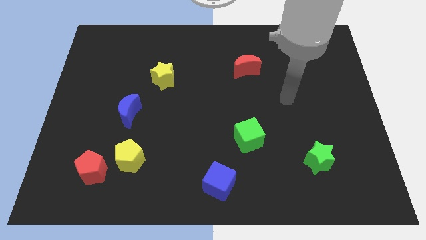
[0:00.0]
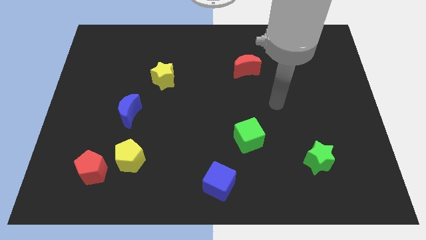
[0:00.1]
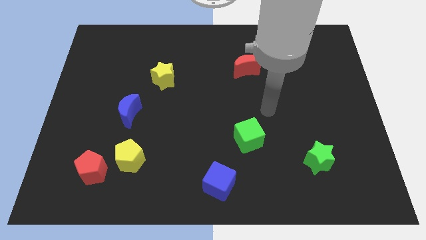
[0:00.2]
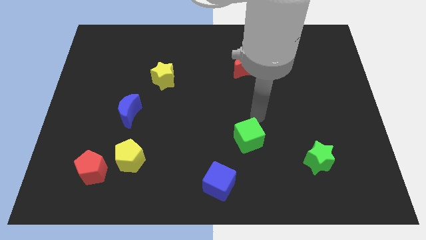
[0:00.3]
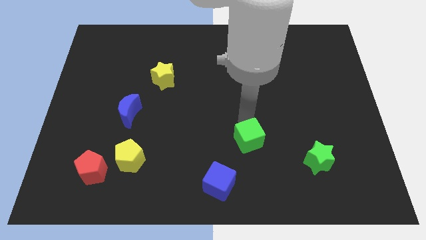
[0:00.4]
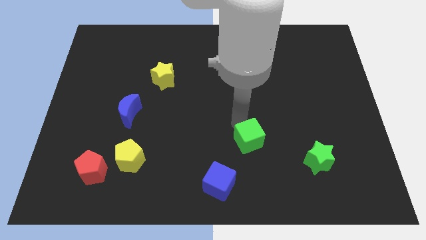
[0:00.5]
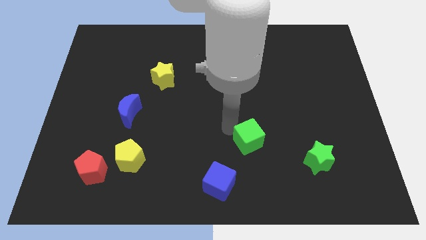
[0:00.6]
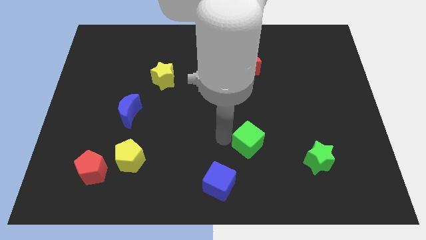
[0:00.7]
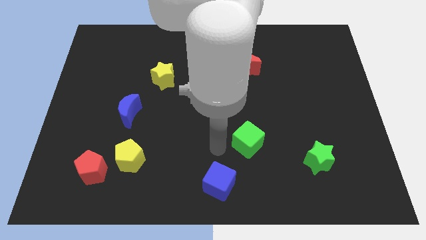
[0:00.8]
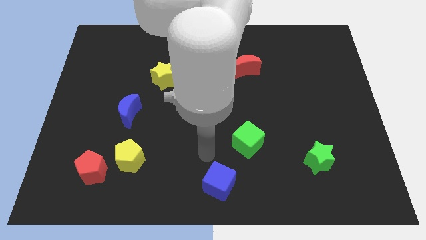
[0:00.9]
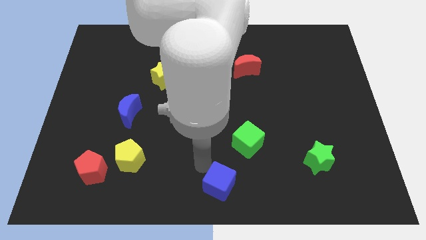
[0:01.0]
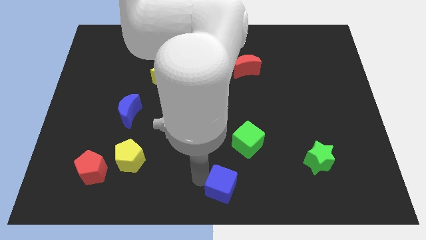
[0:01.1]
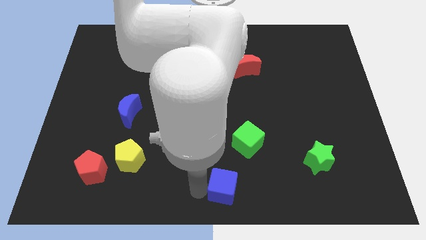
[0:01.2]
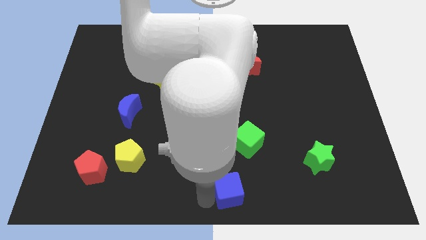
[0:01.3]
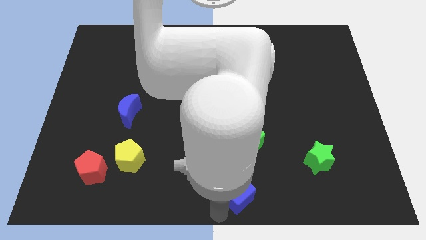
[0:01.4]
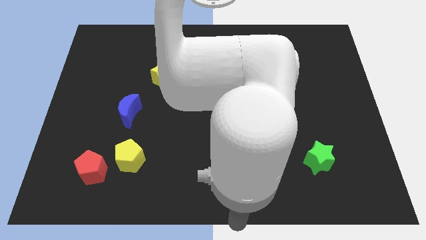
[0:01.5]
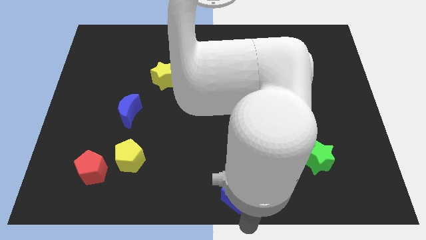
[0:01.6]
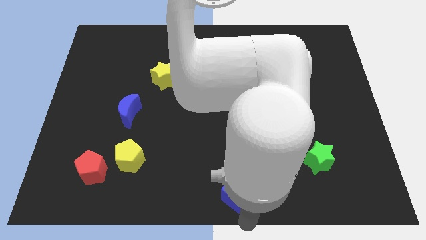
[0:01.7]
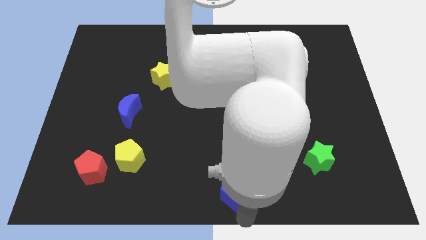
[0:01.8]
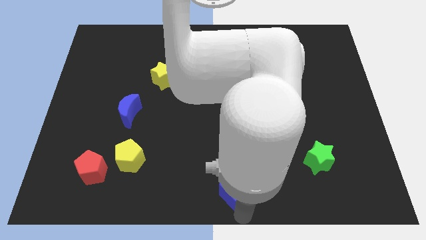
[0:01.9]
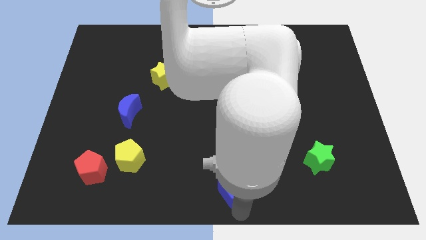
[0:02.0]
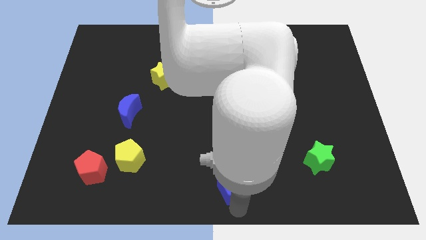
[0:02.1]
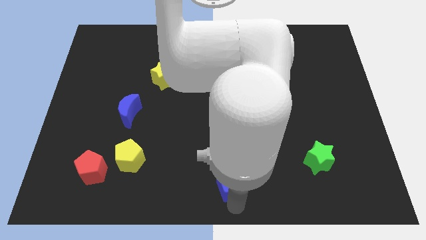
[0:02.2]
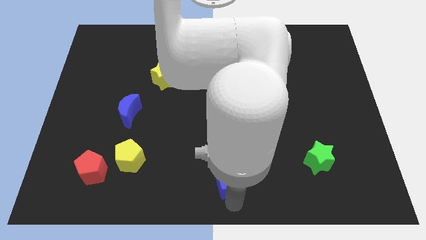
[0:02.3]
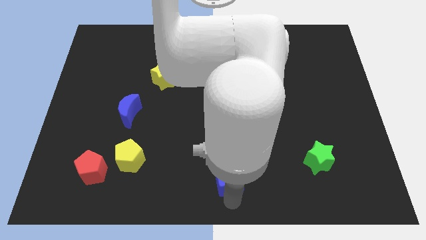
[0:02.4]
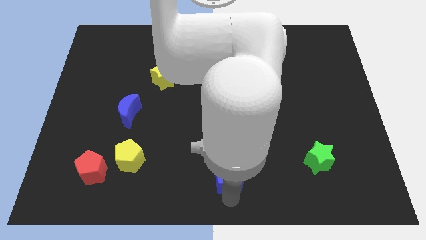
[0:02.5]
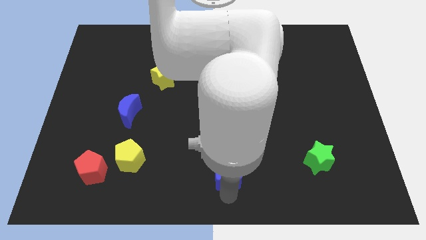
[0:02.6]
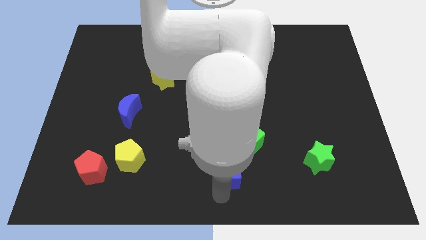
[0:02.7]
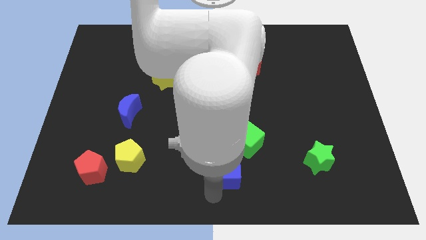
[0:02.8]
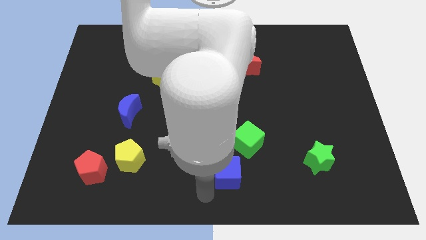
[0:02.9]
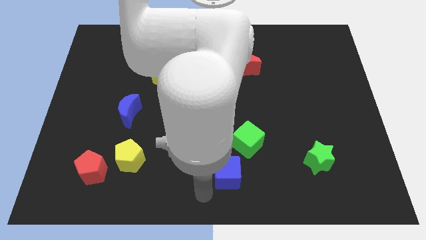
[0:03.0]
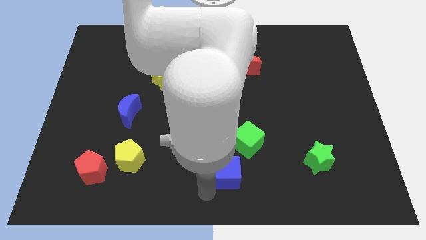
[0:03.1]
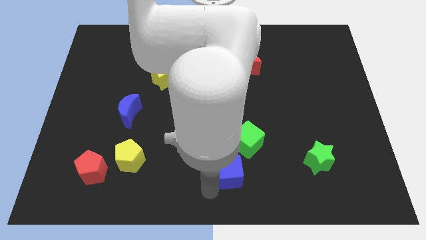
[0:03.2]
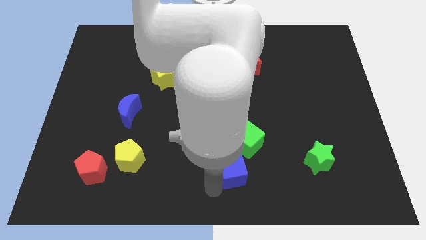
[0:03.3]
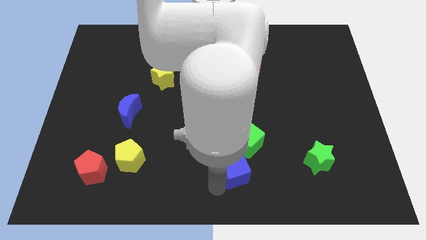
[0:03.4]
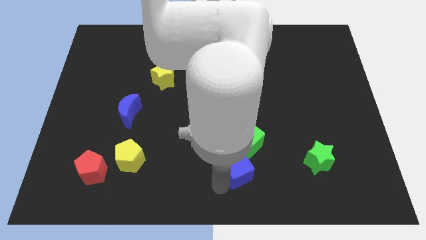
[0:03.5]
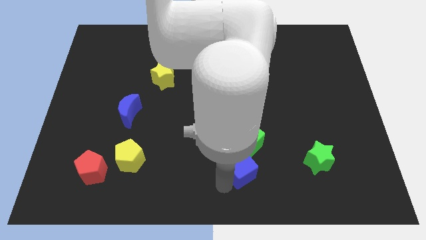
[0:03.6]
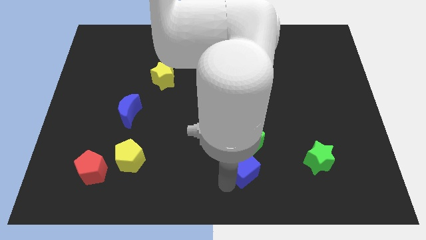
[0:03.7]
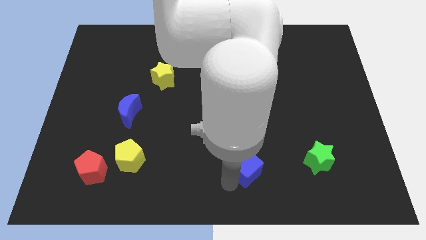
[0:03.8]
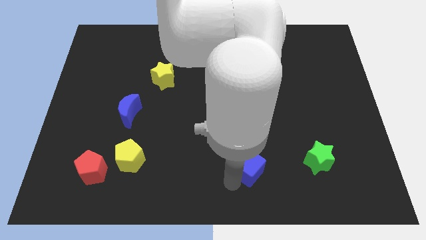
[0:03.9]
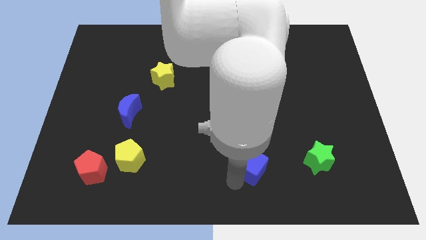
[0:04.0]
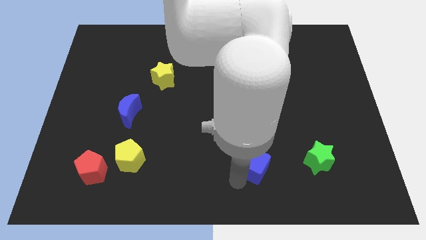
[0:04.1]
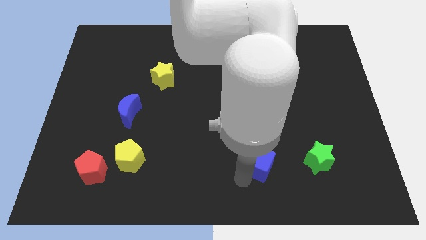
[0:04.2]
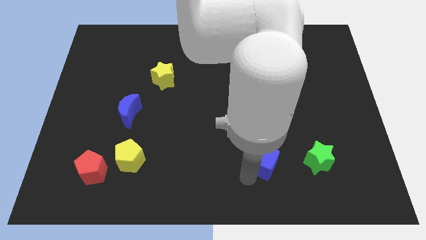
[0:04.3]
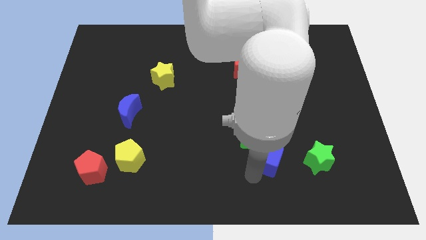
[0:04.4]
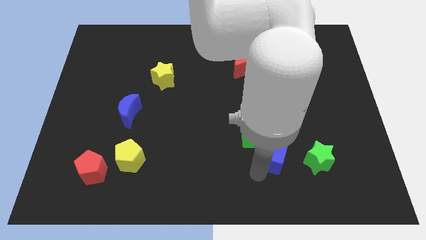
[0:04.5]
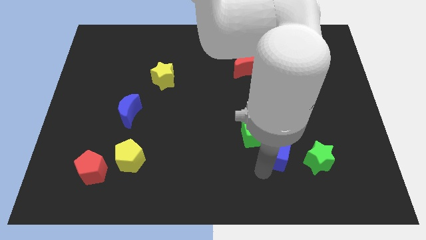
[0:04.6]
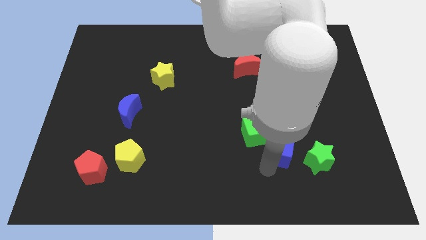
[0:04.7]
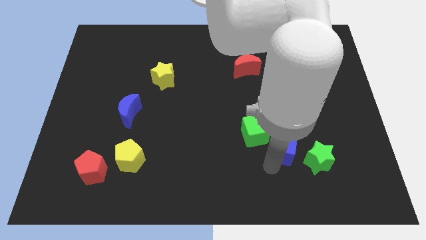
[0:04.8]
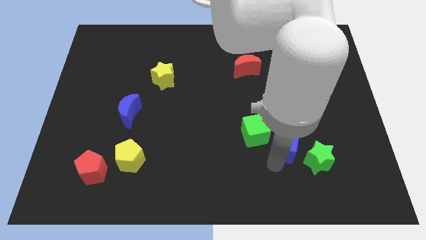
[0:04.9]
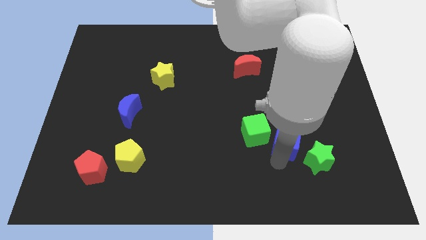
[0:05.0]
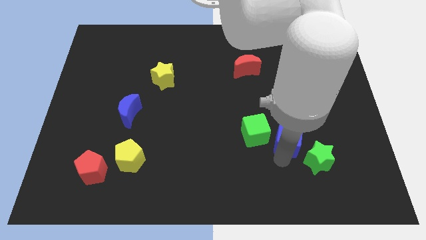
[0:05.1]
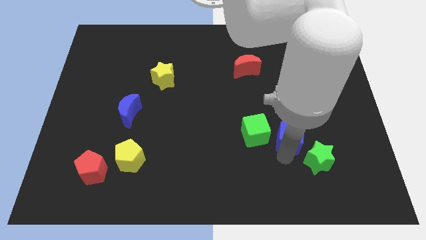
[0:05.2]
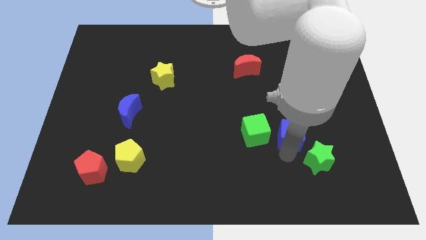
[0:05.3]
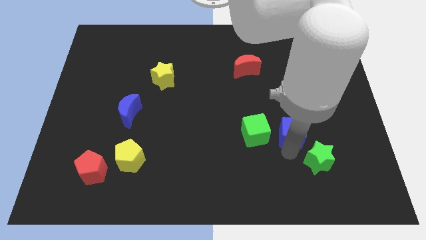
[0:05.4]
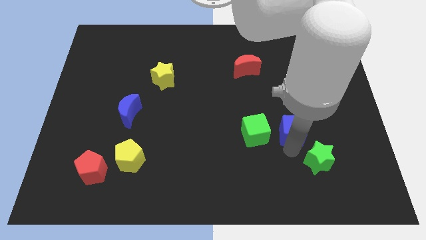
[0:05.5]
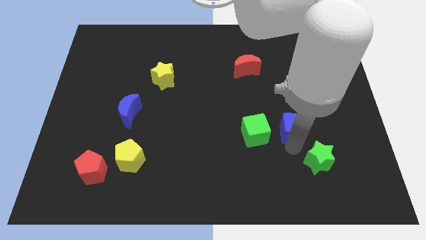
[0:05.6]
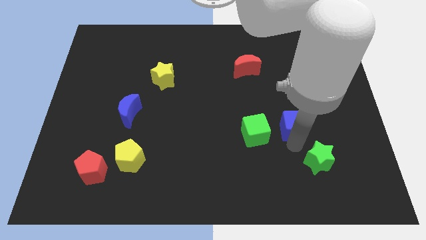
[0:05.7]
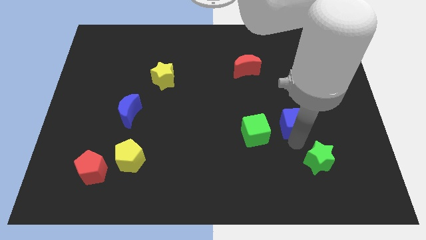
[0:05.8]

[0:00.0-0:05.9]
push the blue cube to the top right of the green cube

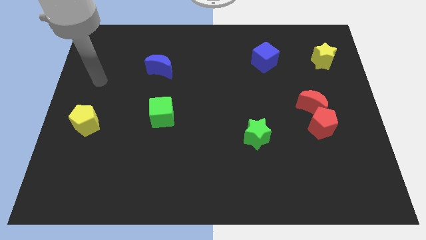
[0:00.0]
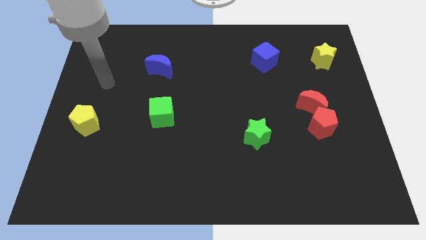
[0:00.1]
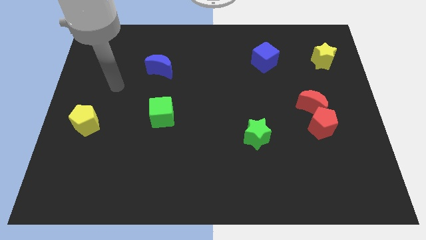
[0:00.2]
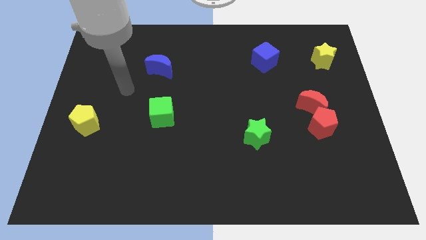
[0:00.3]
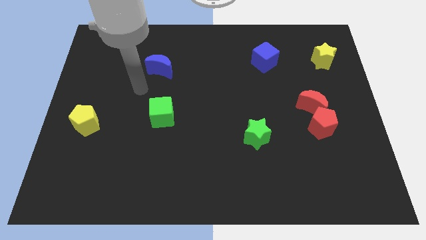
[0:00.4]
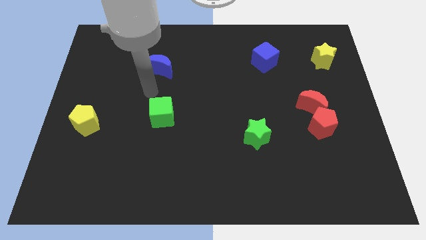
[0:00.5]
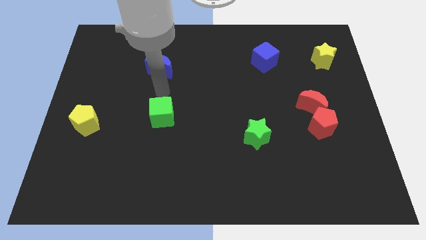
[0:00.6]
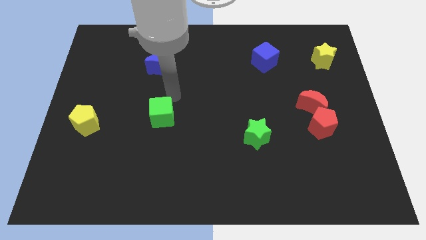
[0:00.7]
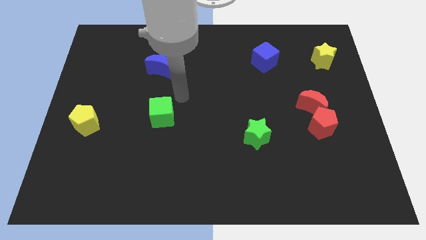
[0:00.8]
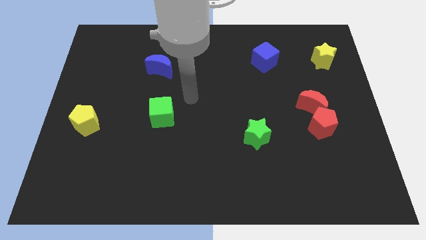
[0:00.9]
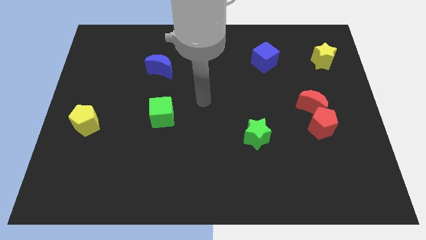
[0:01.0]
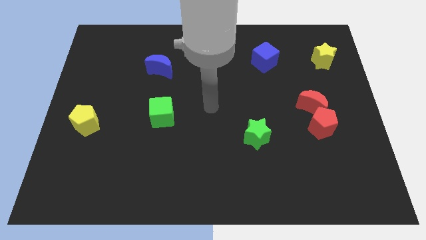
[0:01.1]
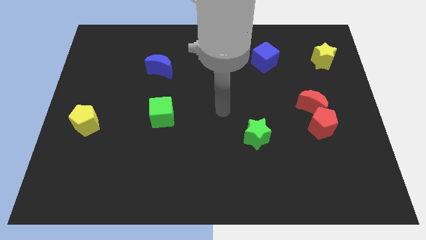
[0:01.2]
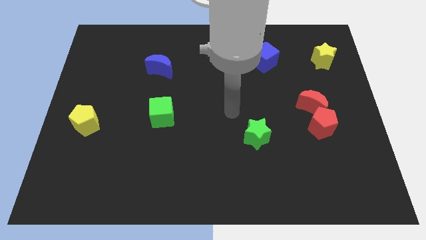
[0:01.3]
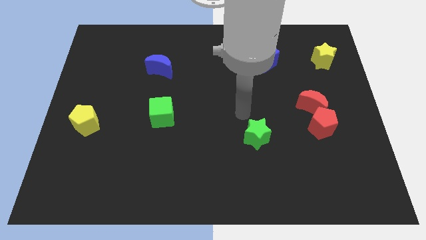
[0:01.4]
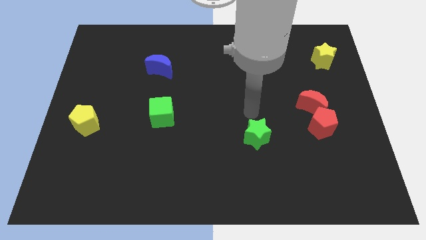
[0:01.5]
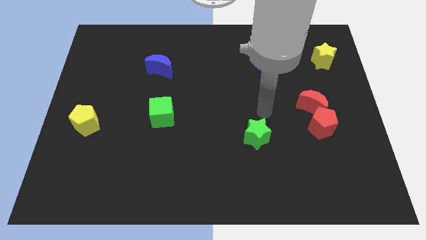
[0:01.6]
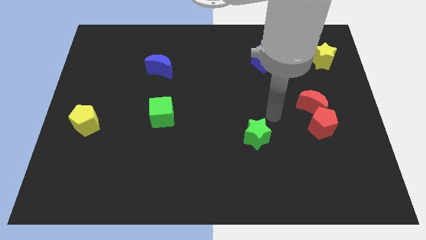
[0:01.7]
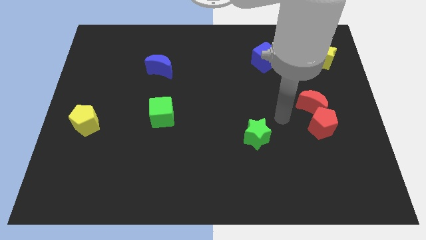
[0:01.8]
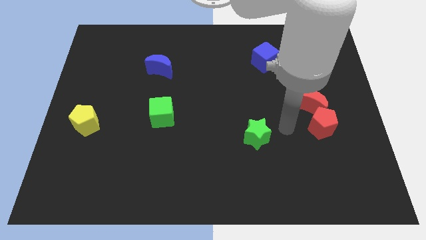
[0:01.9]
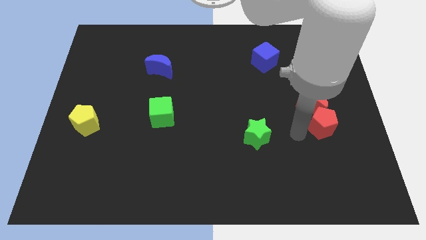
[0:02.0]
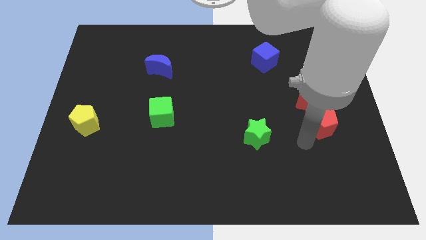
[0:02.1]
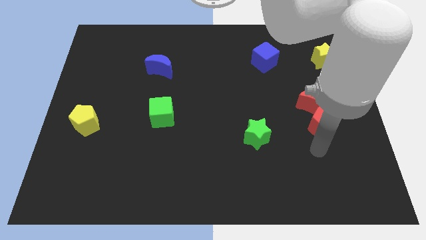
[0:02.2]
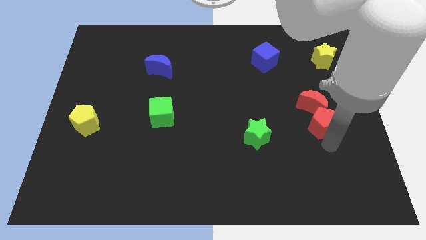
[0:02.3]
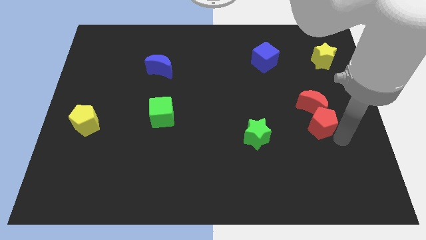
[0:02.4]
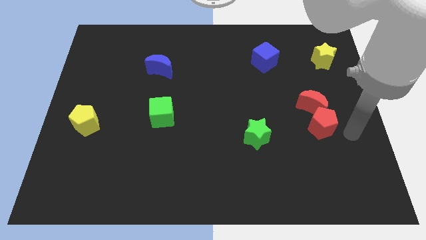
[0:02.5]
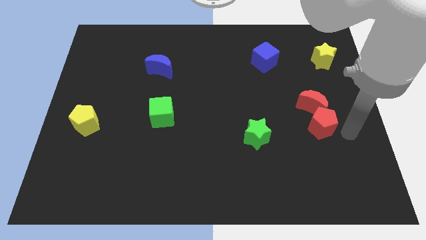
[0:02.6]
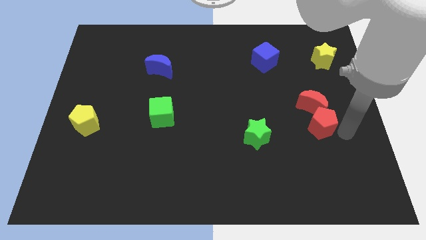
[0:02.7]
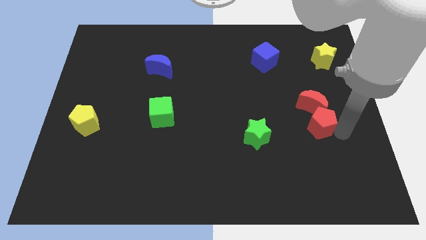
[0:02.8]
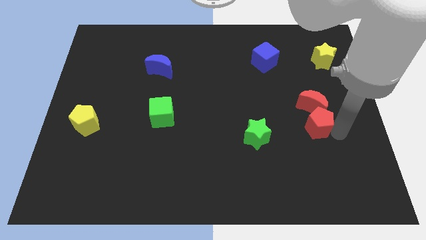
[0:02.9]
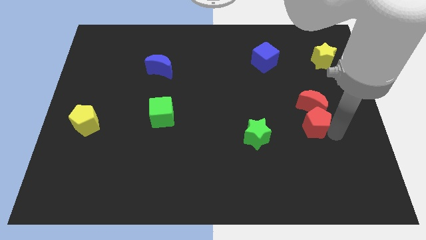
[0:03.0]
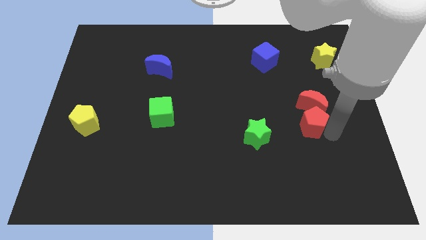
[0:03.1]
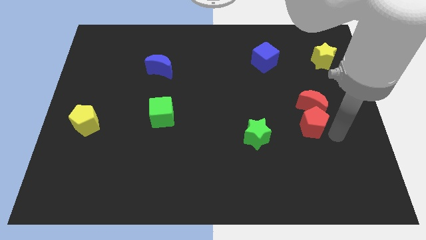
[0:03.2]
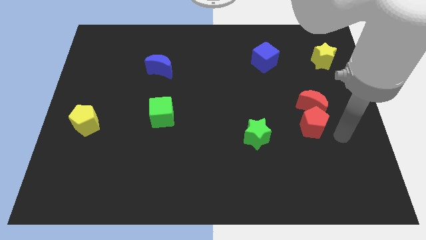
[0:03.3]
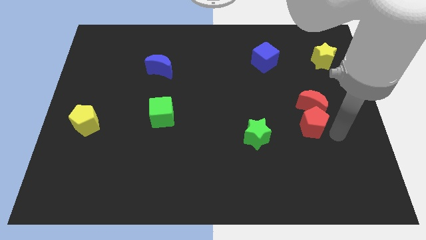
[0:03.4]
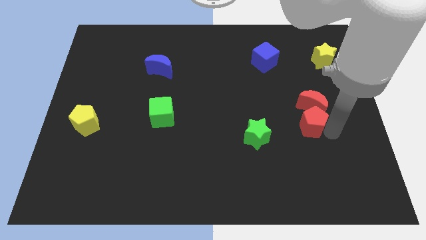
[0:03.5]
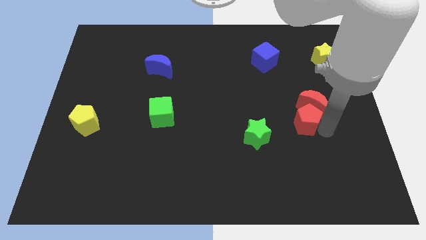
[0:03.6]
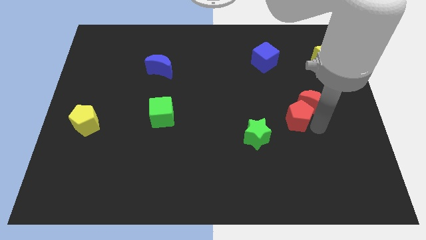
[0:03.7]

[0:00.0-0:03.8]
push the red pentagon to the top right side of the green star
